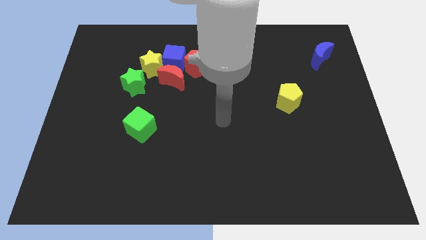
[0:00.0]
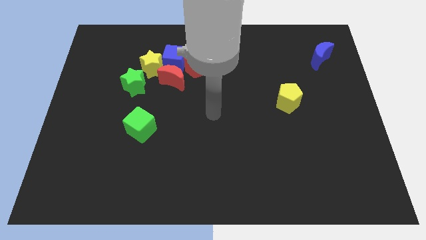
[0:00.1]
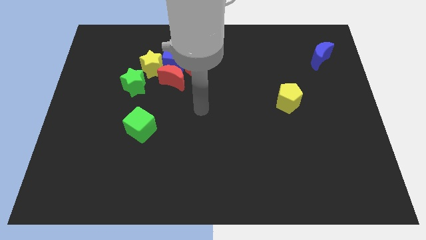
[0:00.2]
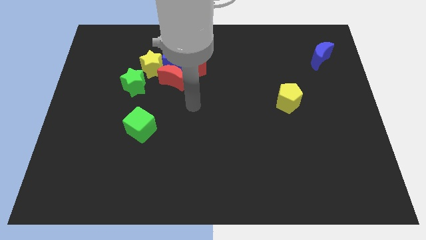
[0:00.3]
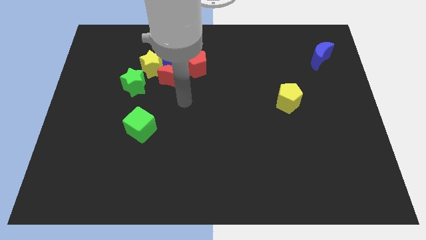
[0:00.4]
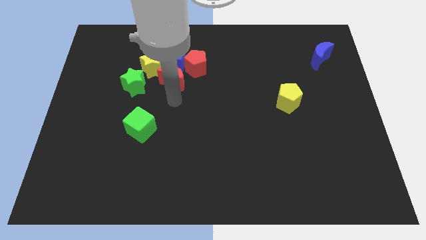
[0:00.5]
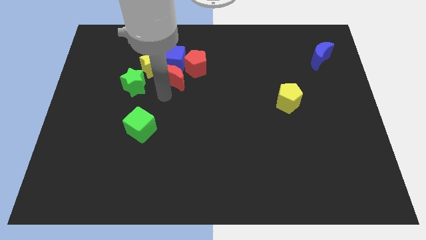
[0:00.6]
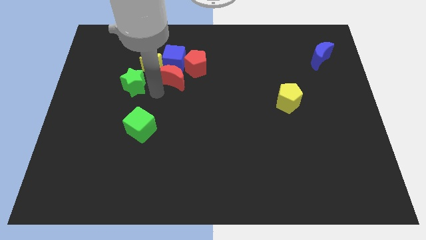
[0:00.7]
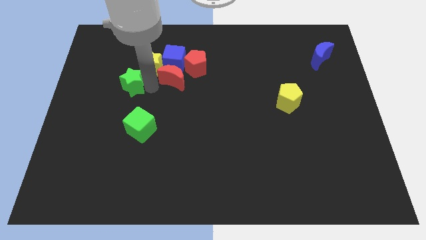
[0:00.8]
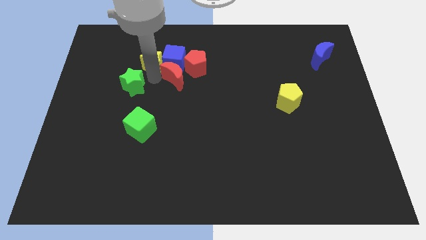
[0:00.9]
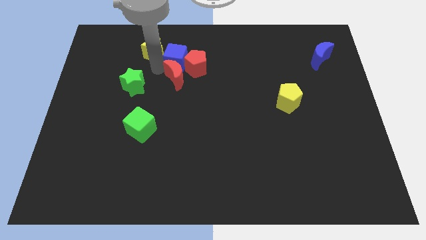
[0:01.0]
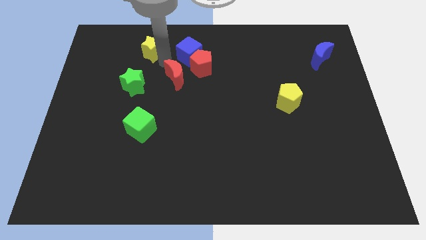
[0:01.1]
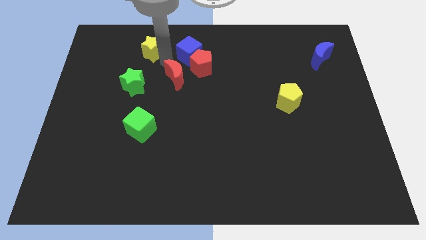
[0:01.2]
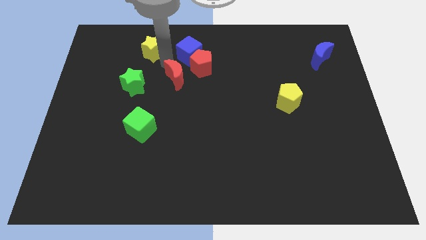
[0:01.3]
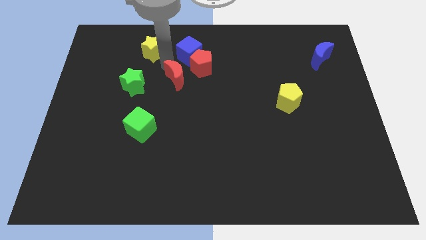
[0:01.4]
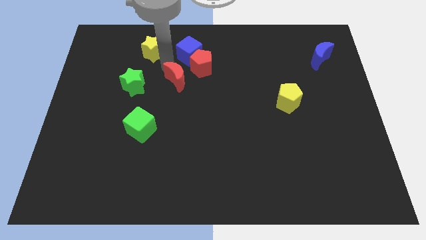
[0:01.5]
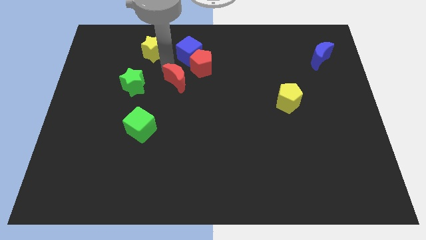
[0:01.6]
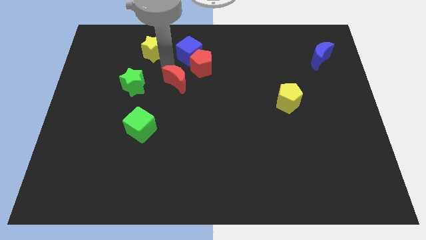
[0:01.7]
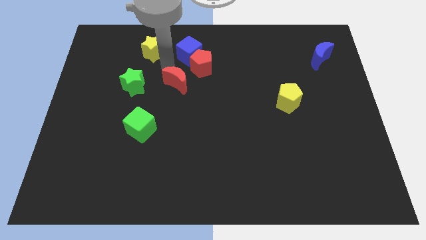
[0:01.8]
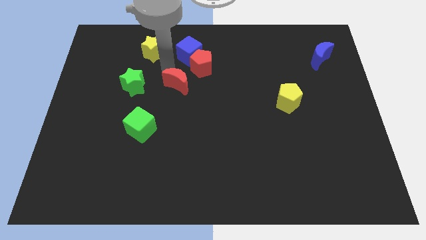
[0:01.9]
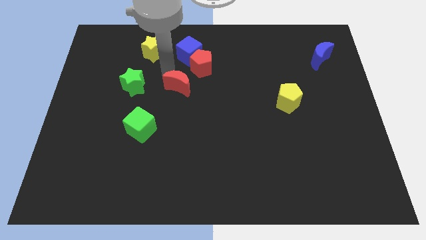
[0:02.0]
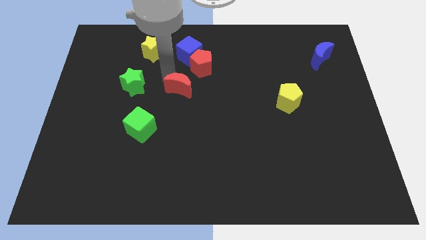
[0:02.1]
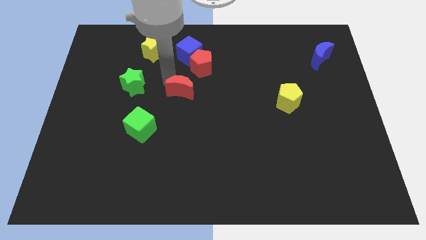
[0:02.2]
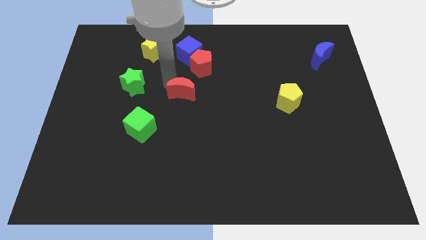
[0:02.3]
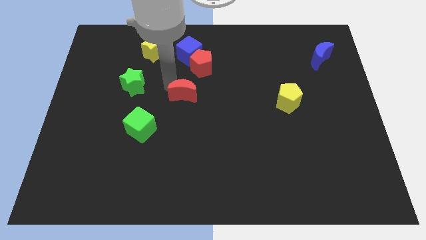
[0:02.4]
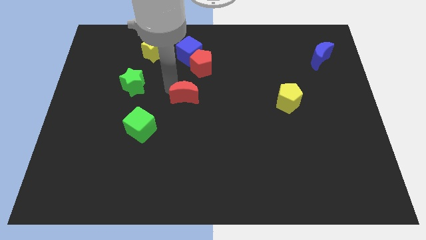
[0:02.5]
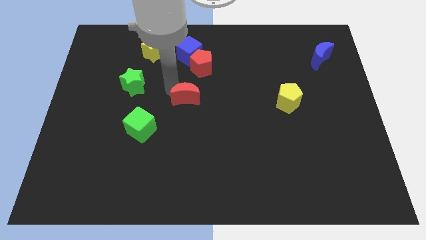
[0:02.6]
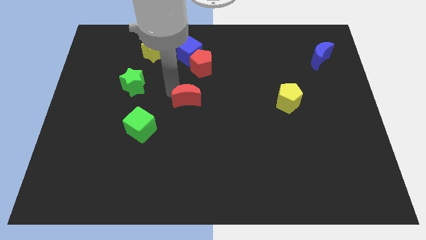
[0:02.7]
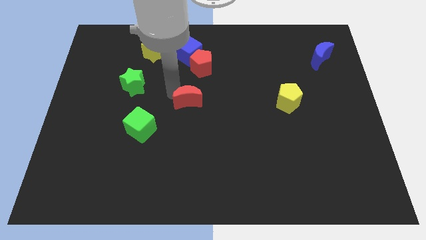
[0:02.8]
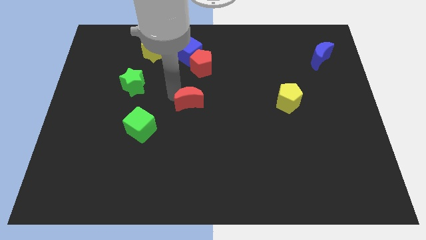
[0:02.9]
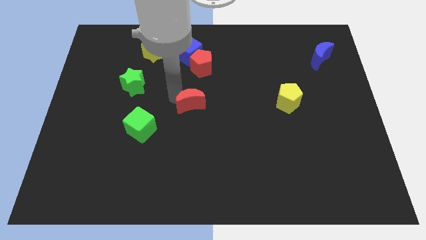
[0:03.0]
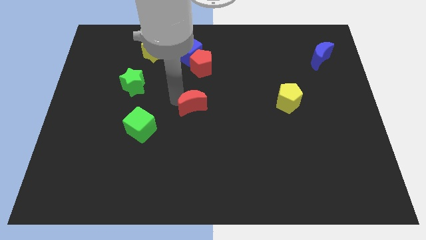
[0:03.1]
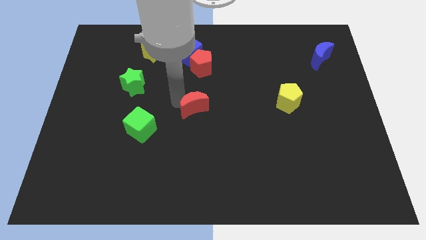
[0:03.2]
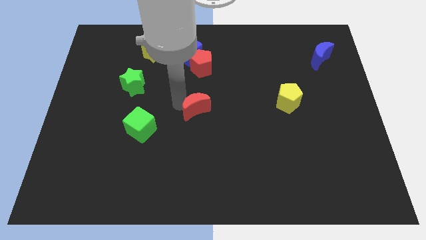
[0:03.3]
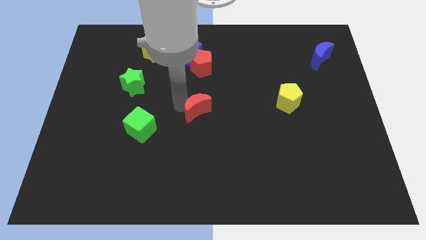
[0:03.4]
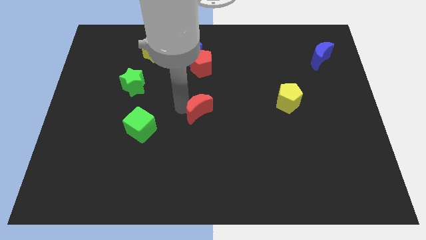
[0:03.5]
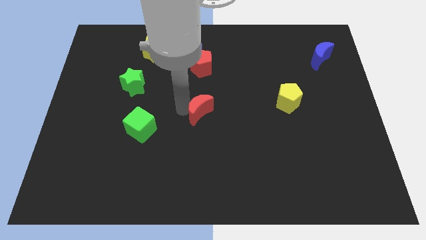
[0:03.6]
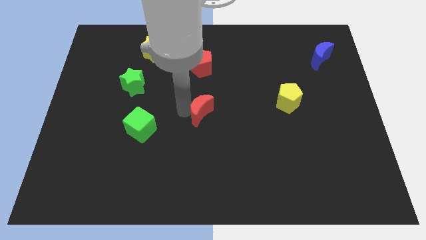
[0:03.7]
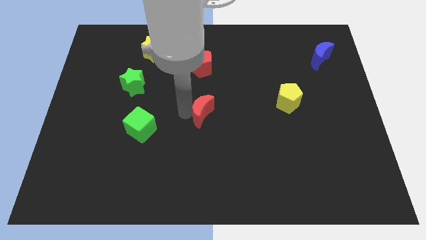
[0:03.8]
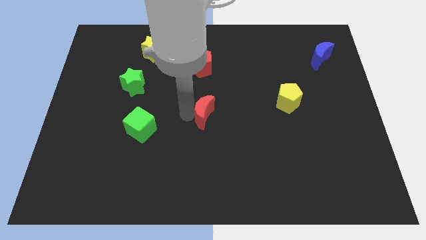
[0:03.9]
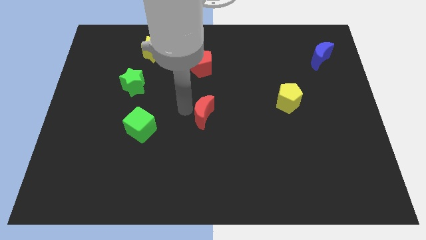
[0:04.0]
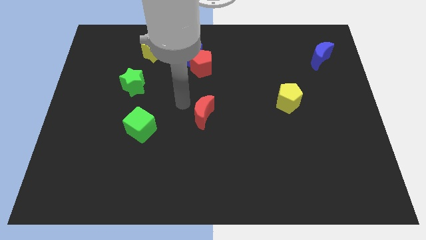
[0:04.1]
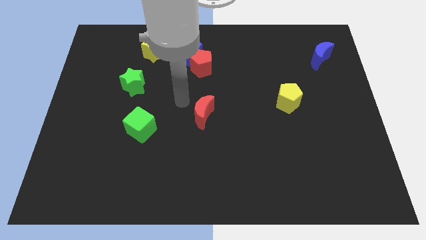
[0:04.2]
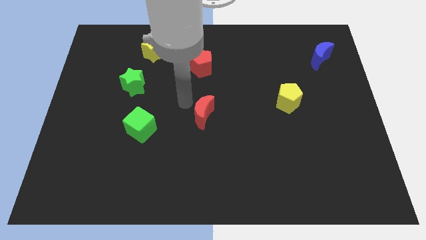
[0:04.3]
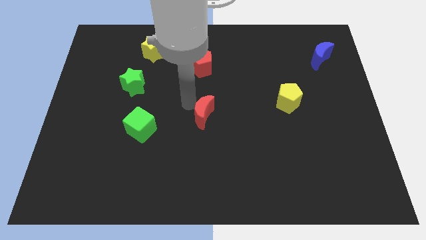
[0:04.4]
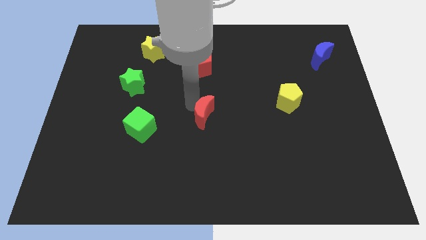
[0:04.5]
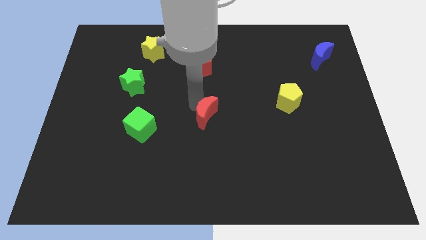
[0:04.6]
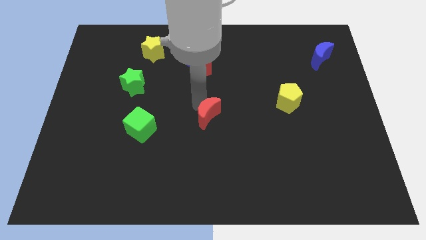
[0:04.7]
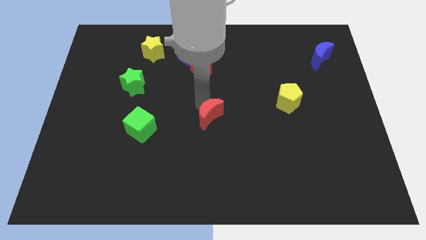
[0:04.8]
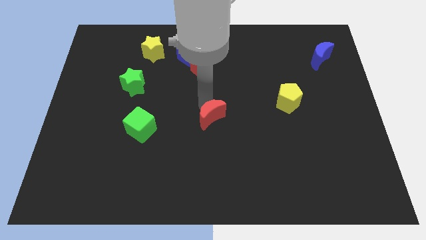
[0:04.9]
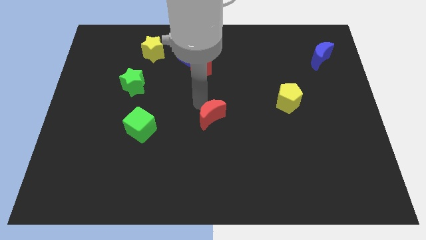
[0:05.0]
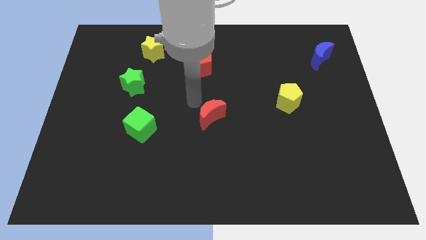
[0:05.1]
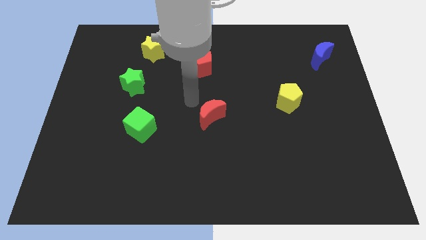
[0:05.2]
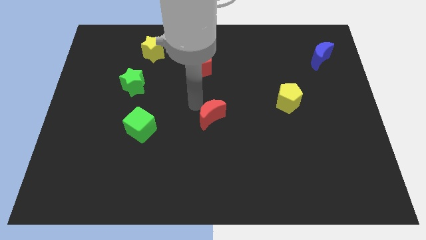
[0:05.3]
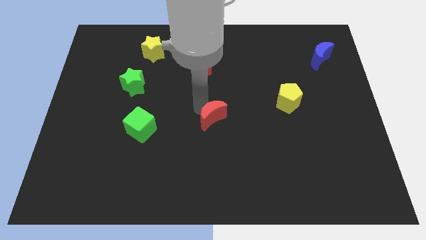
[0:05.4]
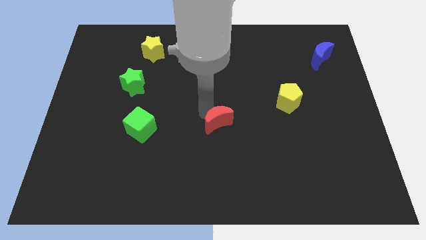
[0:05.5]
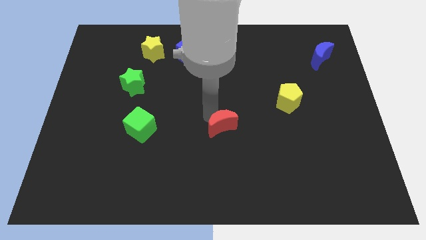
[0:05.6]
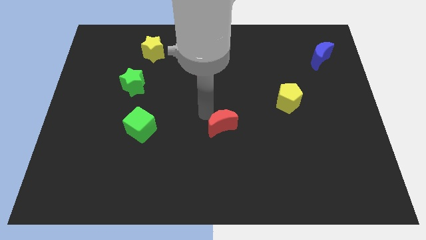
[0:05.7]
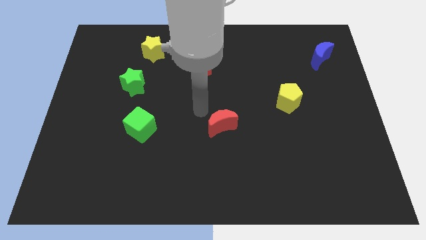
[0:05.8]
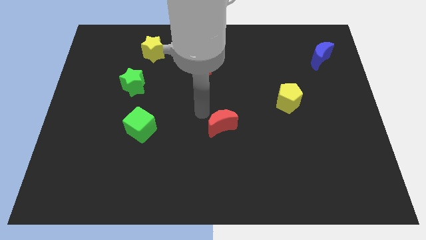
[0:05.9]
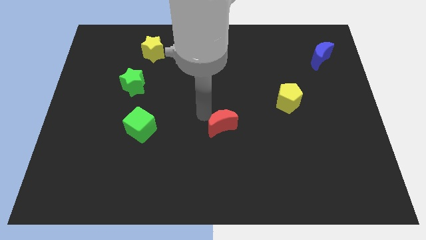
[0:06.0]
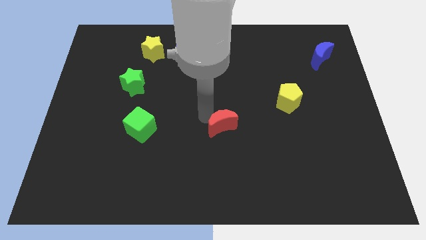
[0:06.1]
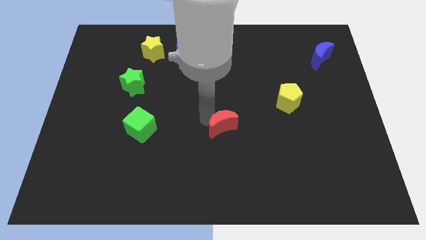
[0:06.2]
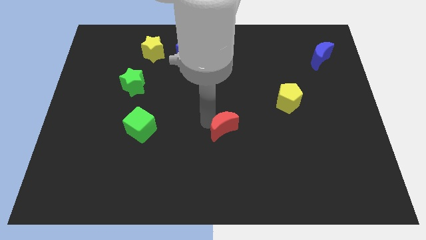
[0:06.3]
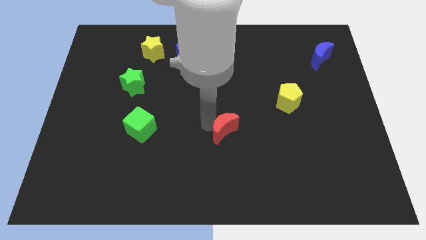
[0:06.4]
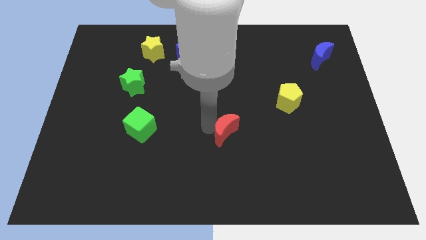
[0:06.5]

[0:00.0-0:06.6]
push the red moon downwards and right diagonally

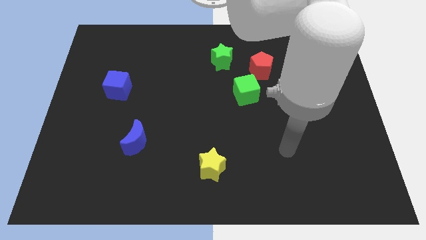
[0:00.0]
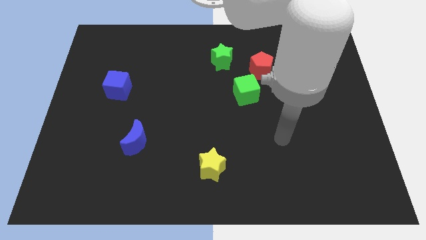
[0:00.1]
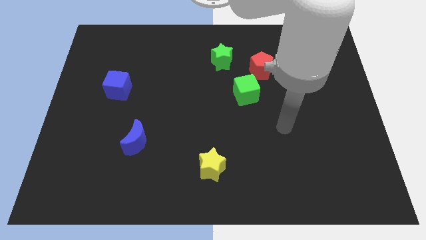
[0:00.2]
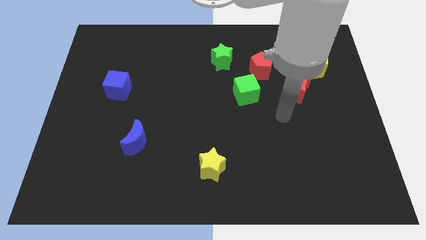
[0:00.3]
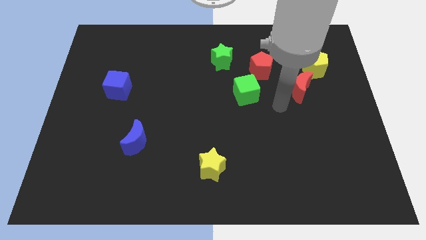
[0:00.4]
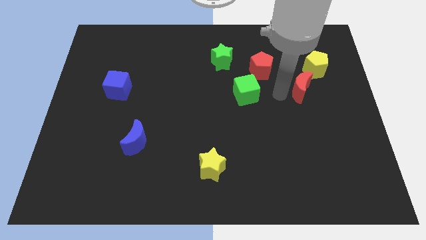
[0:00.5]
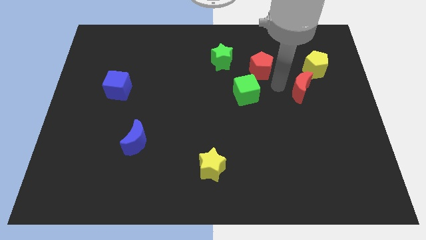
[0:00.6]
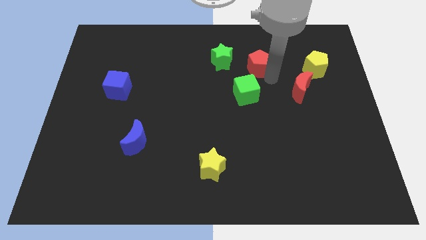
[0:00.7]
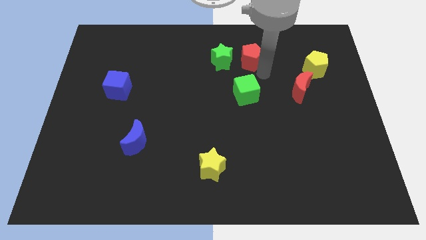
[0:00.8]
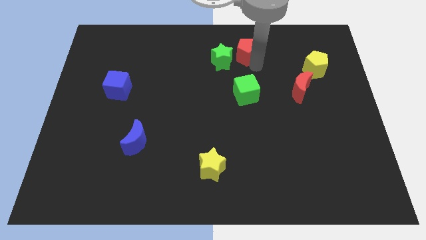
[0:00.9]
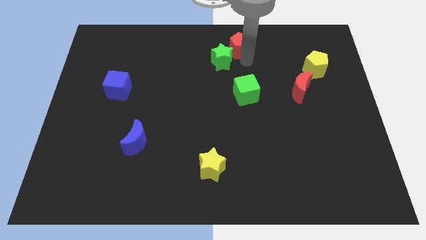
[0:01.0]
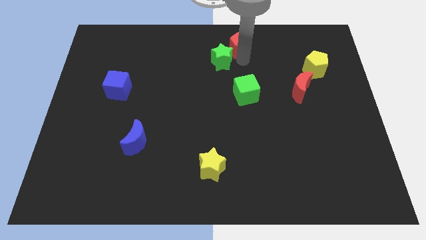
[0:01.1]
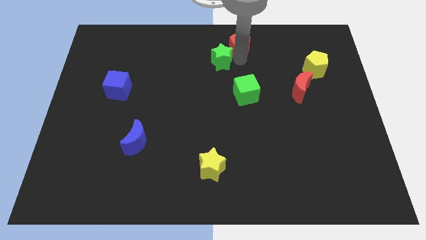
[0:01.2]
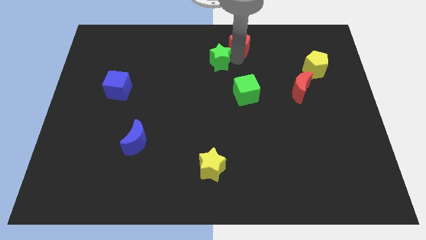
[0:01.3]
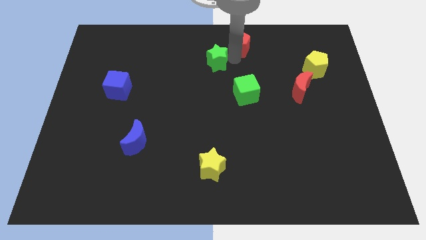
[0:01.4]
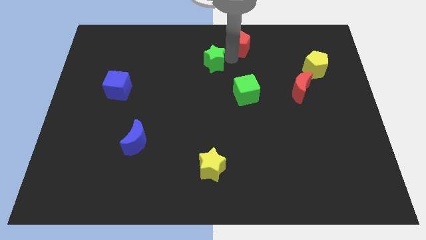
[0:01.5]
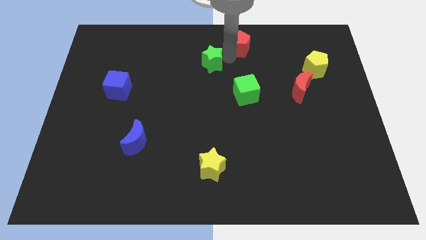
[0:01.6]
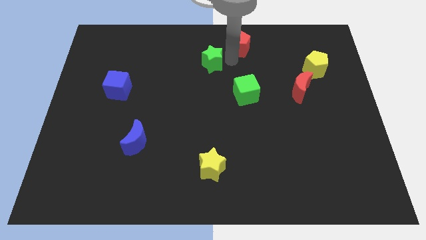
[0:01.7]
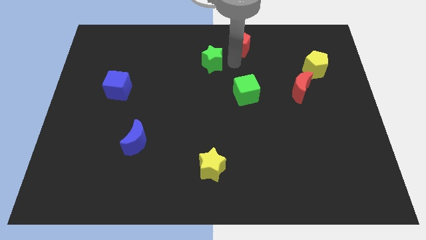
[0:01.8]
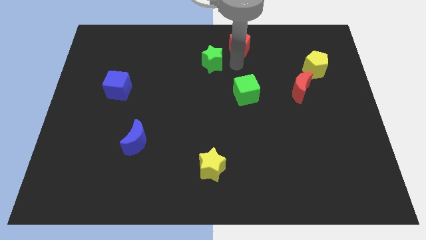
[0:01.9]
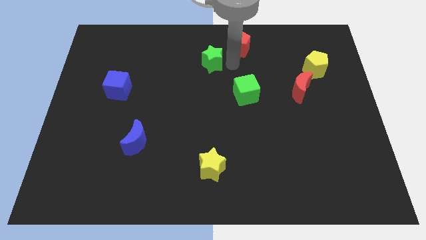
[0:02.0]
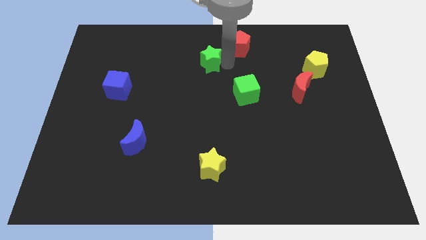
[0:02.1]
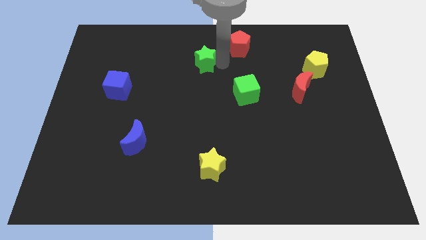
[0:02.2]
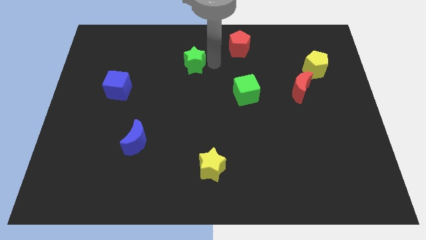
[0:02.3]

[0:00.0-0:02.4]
move the green star to the left slightly
